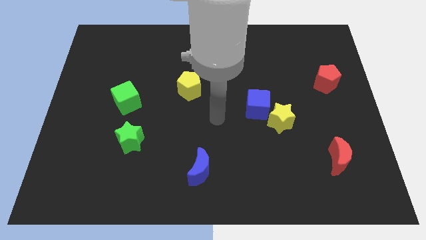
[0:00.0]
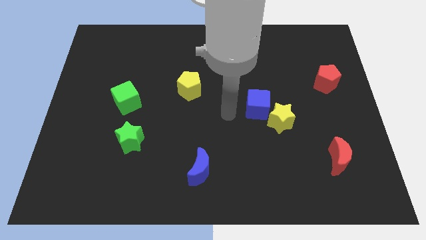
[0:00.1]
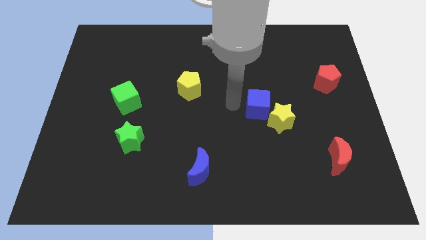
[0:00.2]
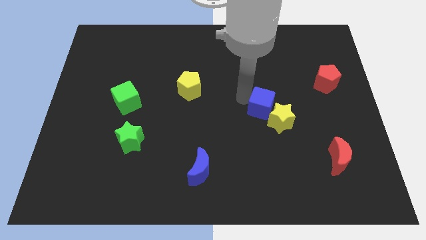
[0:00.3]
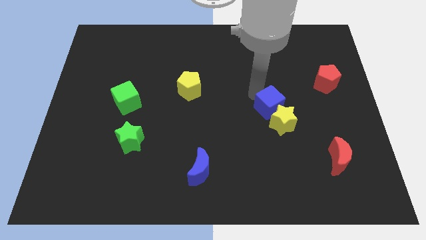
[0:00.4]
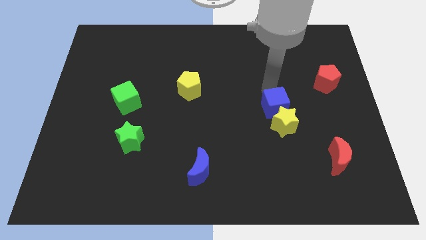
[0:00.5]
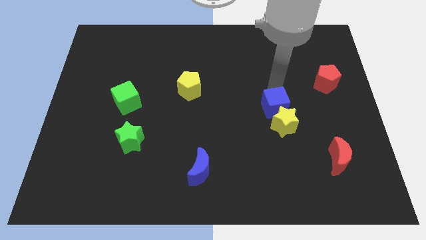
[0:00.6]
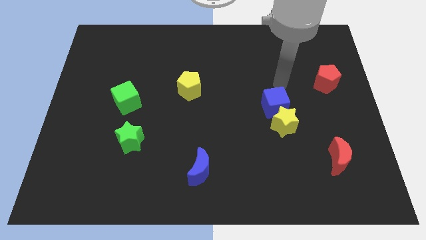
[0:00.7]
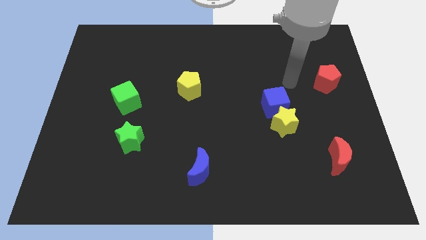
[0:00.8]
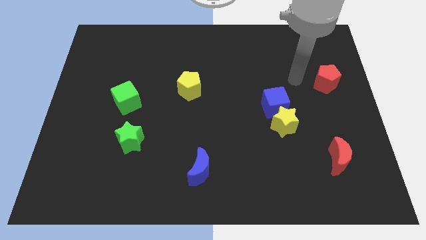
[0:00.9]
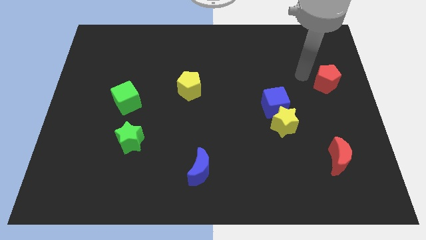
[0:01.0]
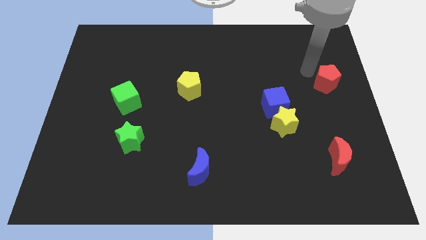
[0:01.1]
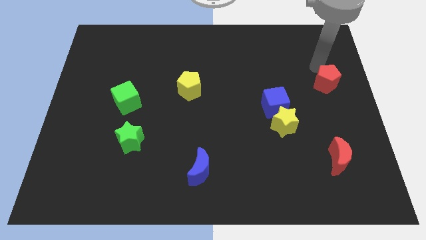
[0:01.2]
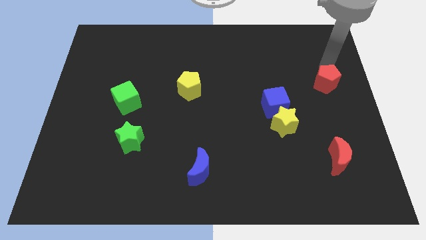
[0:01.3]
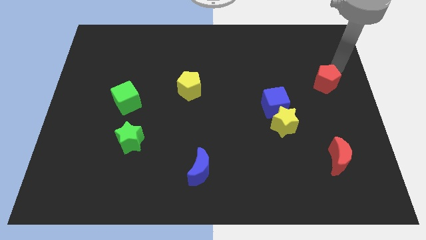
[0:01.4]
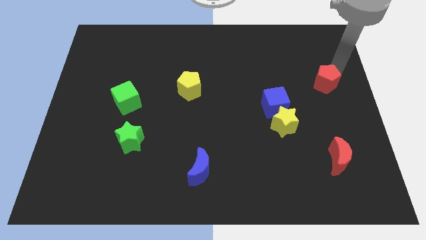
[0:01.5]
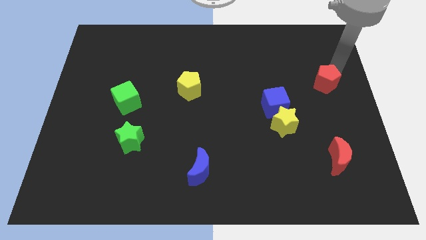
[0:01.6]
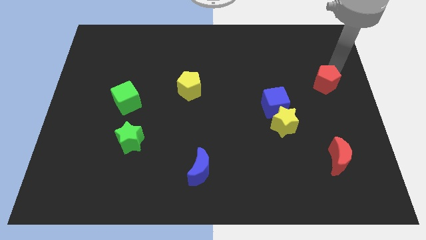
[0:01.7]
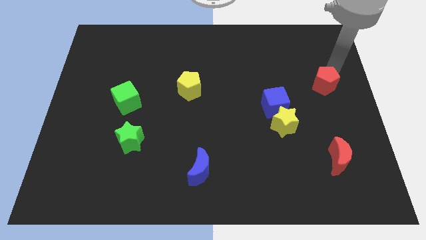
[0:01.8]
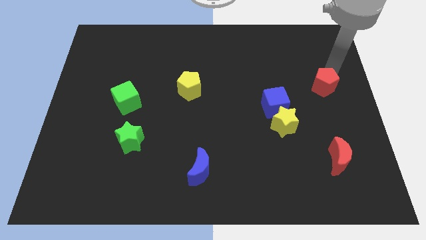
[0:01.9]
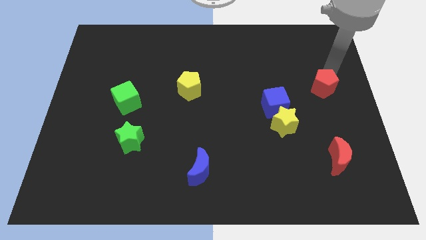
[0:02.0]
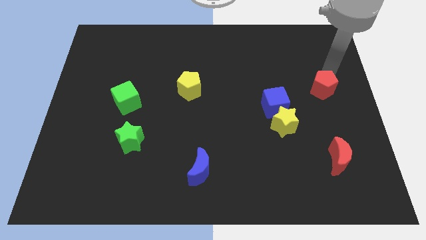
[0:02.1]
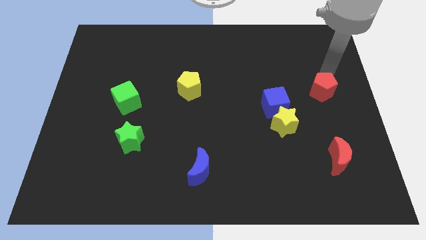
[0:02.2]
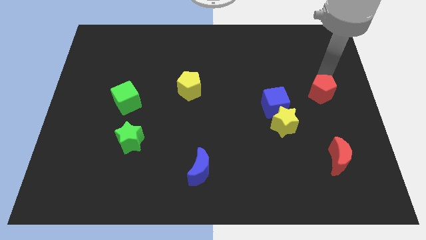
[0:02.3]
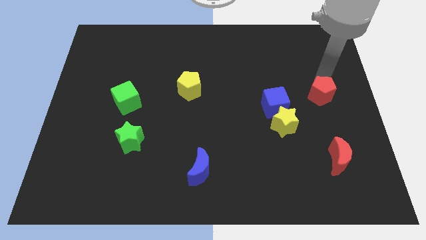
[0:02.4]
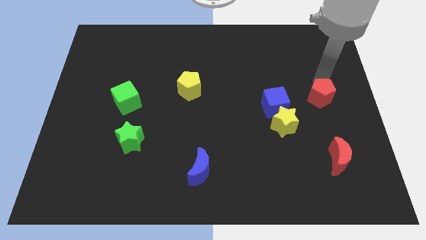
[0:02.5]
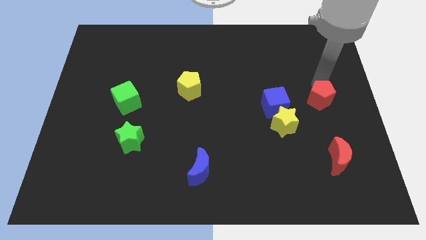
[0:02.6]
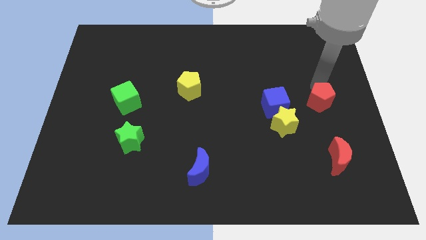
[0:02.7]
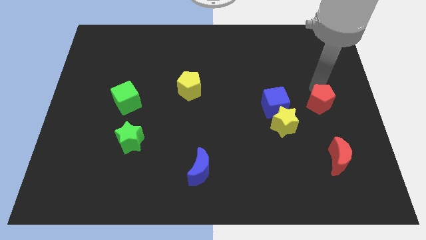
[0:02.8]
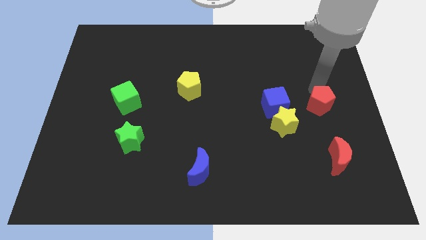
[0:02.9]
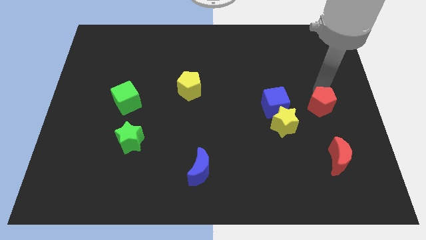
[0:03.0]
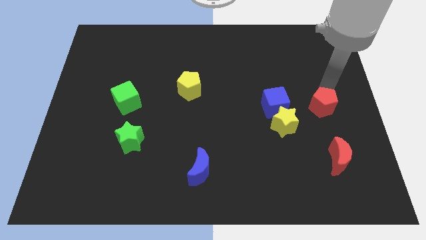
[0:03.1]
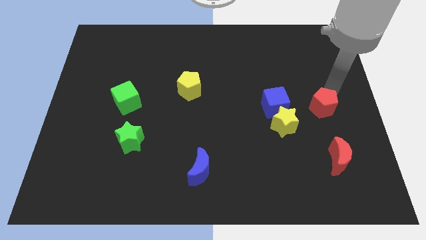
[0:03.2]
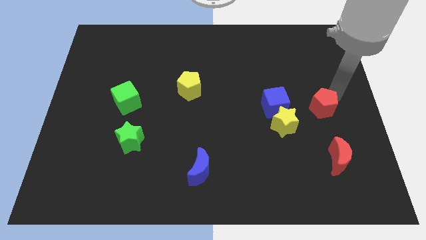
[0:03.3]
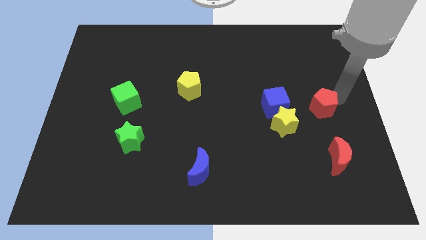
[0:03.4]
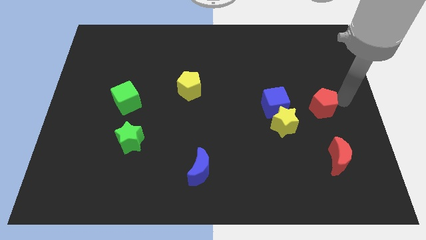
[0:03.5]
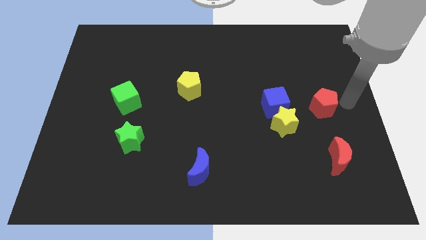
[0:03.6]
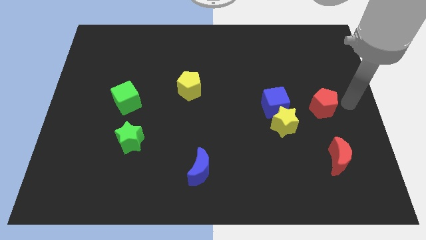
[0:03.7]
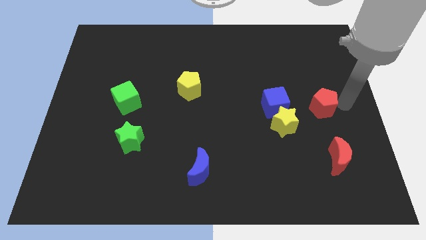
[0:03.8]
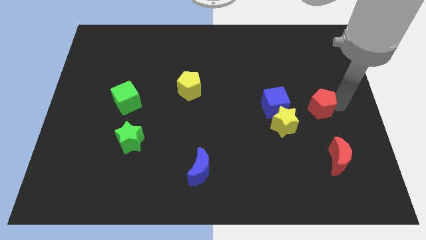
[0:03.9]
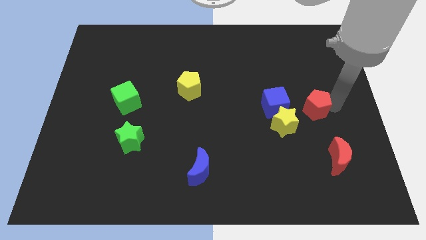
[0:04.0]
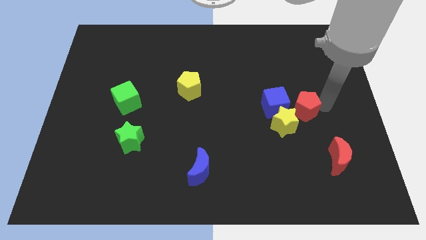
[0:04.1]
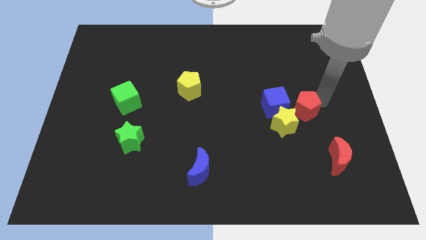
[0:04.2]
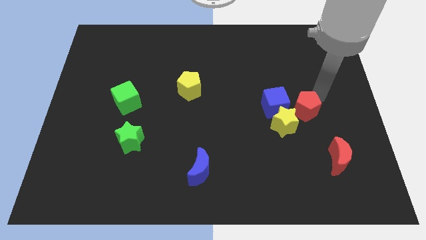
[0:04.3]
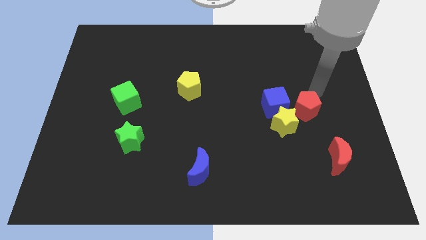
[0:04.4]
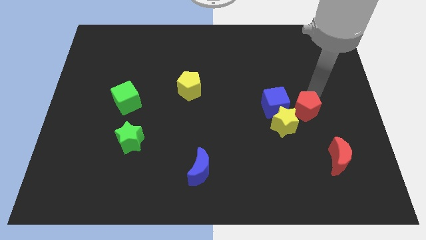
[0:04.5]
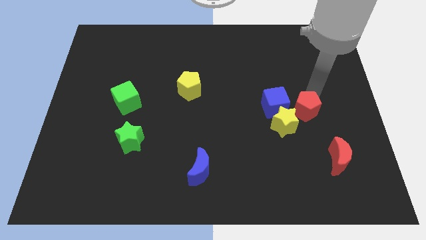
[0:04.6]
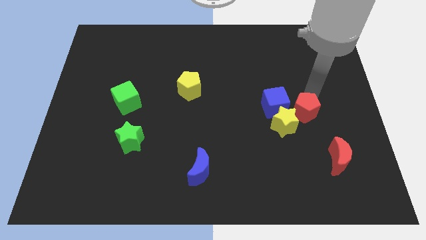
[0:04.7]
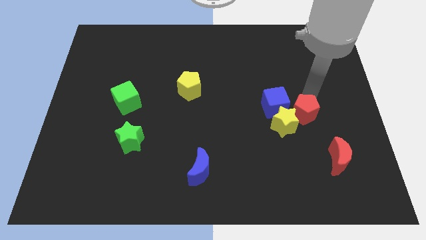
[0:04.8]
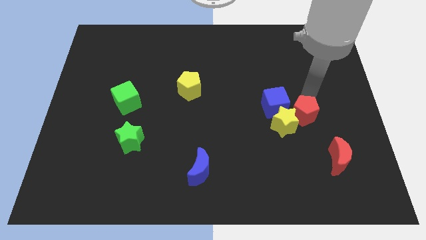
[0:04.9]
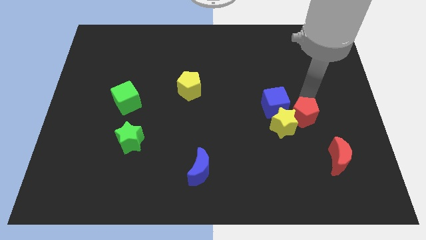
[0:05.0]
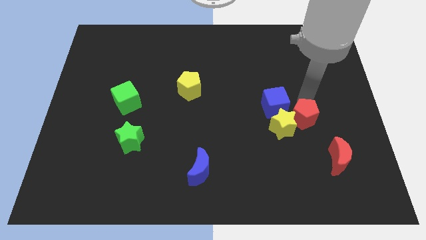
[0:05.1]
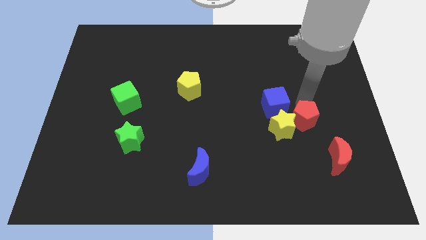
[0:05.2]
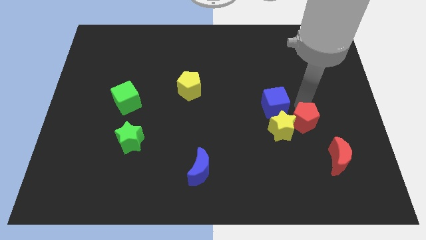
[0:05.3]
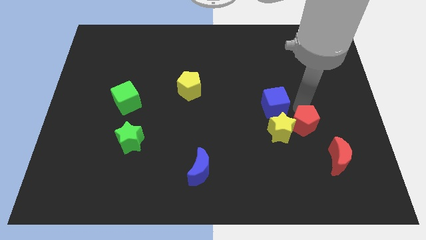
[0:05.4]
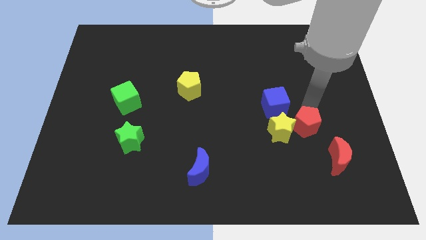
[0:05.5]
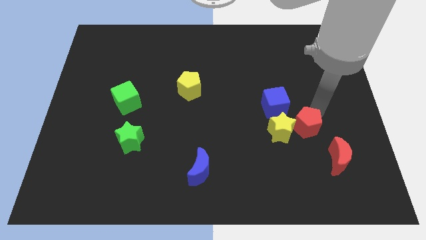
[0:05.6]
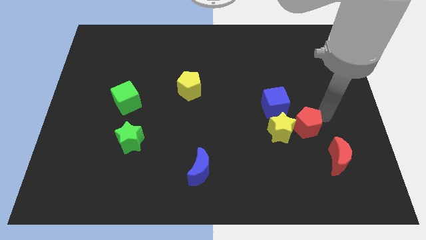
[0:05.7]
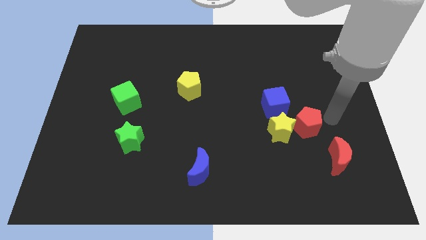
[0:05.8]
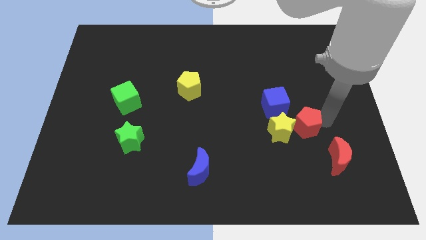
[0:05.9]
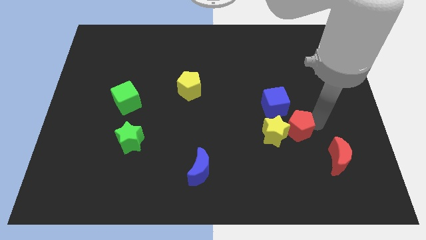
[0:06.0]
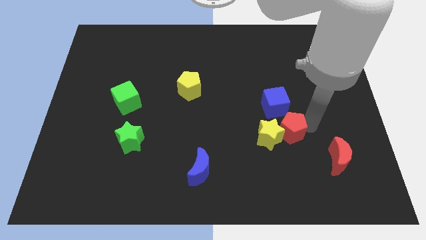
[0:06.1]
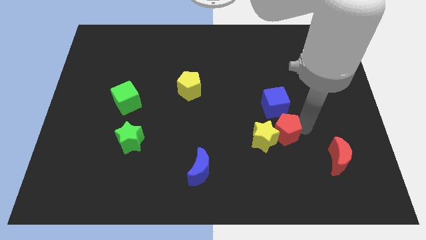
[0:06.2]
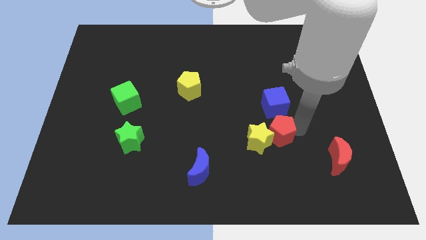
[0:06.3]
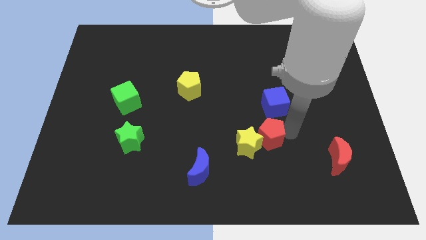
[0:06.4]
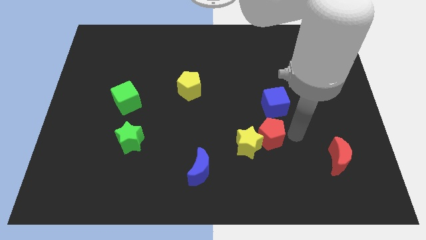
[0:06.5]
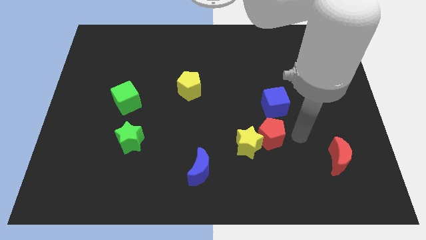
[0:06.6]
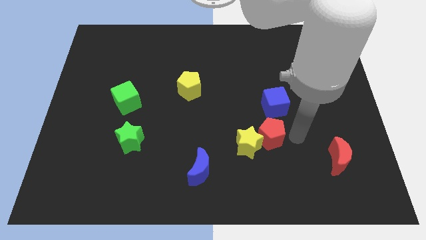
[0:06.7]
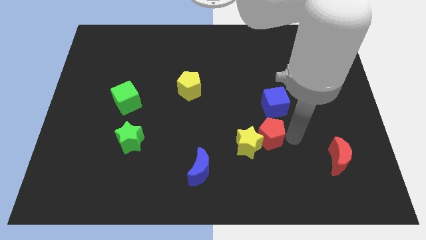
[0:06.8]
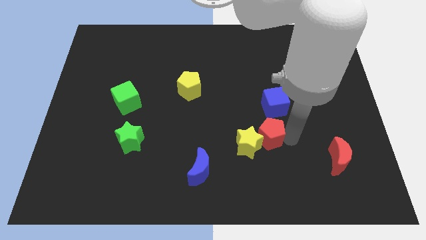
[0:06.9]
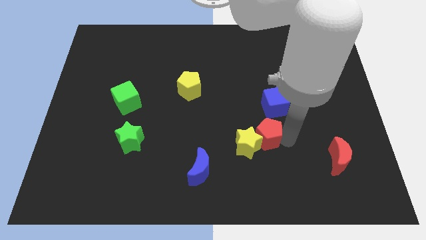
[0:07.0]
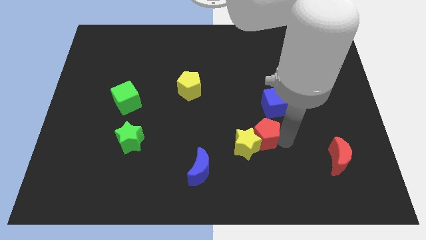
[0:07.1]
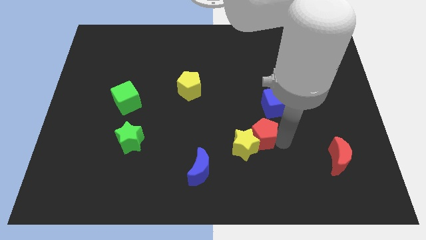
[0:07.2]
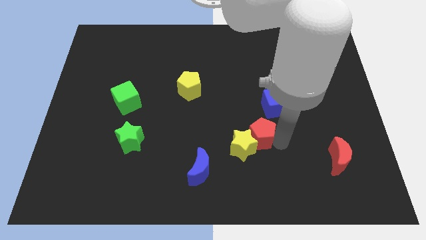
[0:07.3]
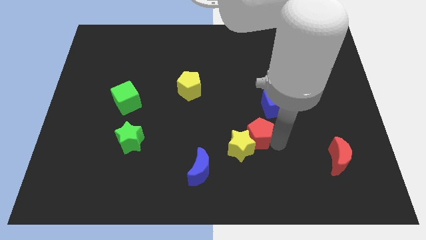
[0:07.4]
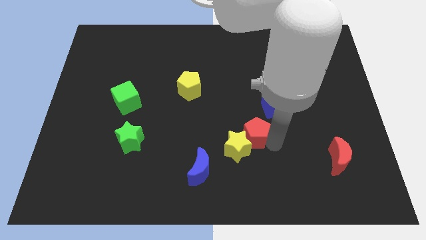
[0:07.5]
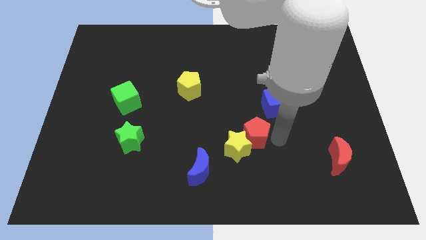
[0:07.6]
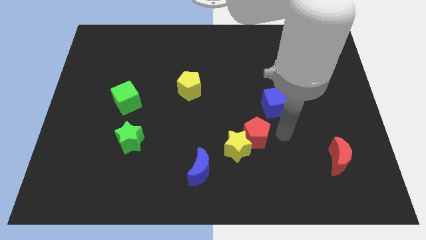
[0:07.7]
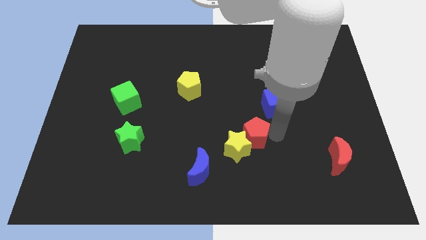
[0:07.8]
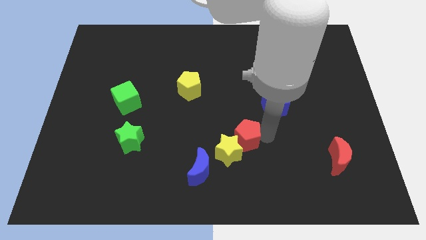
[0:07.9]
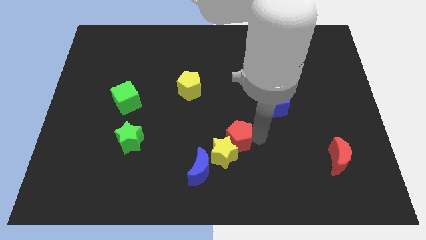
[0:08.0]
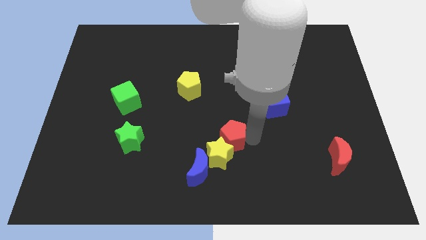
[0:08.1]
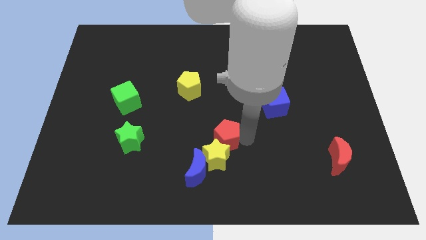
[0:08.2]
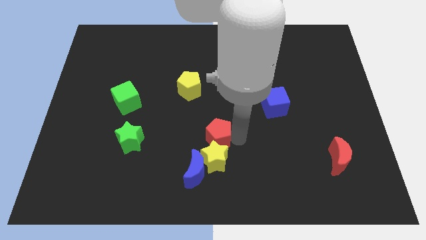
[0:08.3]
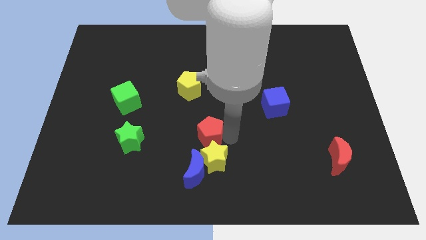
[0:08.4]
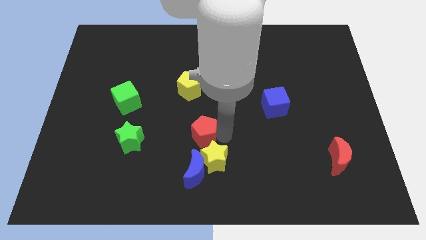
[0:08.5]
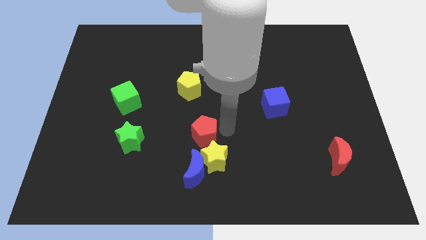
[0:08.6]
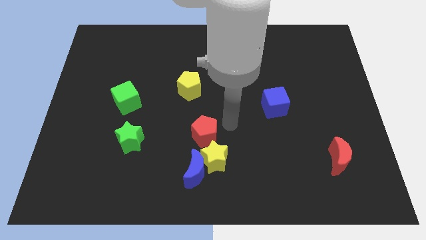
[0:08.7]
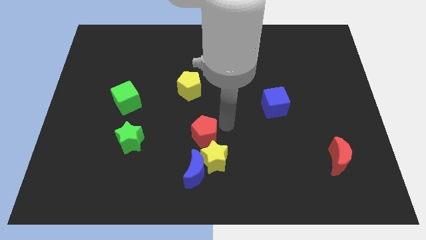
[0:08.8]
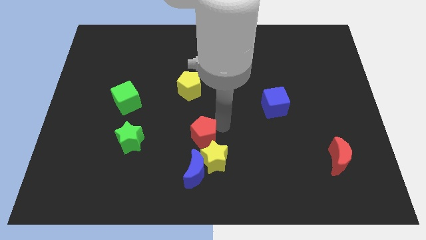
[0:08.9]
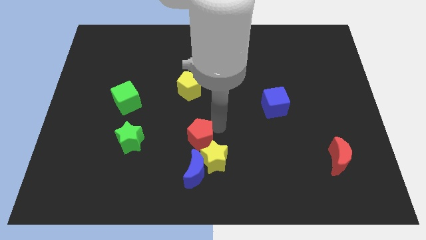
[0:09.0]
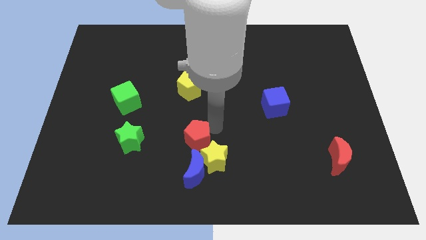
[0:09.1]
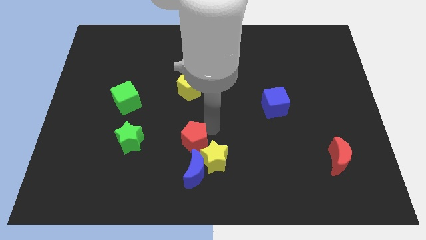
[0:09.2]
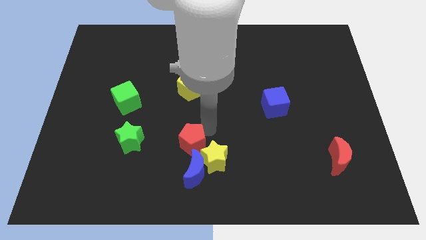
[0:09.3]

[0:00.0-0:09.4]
slide the red pentagon to the top left side of the blue moon
